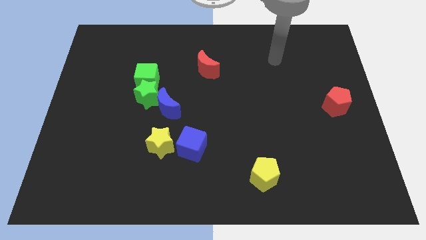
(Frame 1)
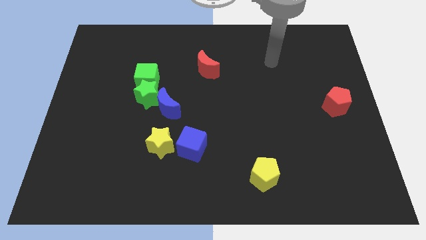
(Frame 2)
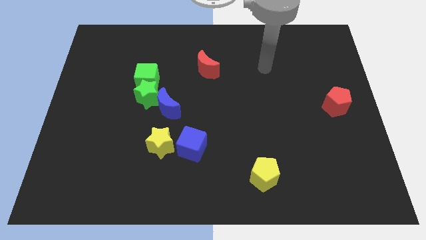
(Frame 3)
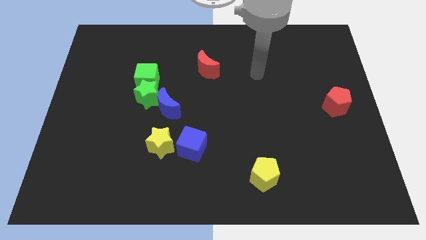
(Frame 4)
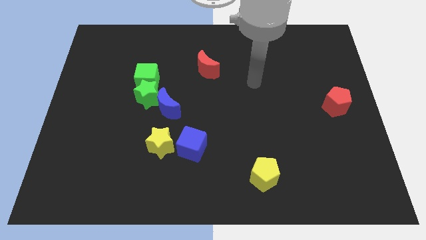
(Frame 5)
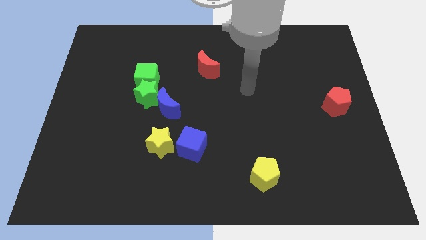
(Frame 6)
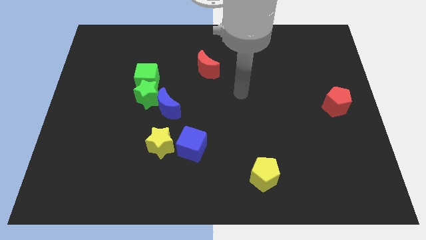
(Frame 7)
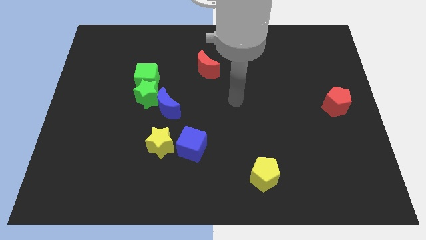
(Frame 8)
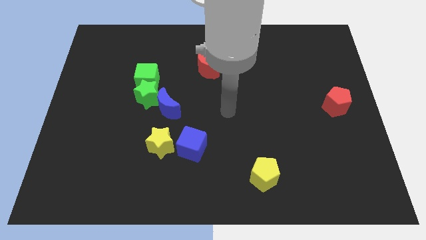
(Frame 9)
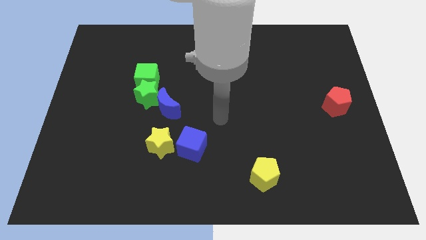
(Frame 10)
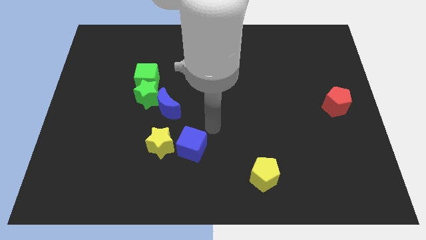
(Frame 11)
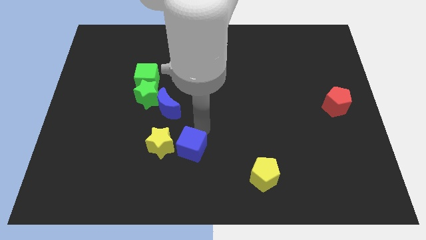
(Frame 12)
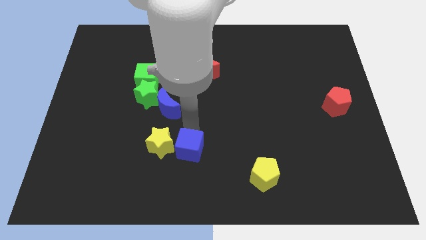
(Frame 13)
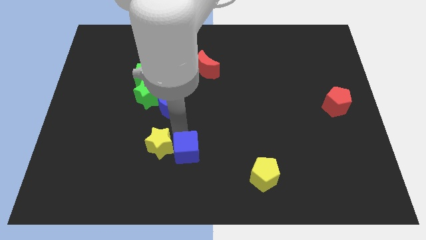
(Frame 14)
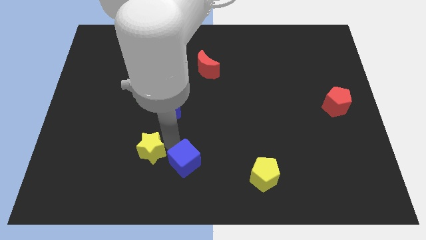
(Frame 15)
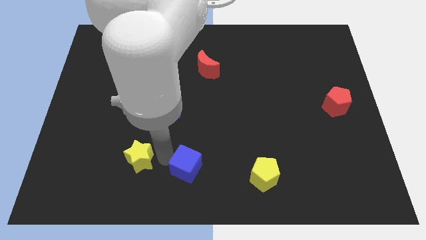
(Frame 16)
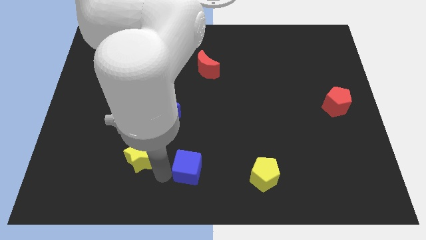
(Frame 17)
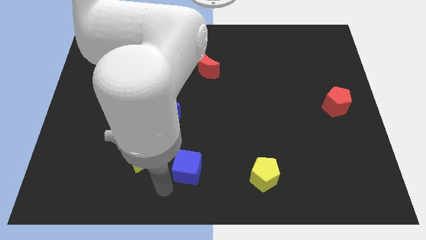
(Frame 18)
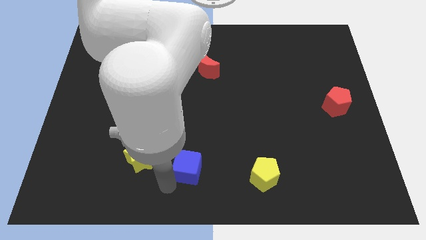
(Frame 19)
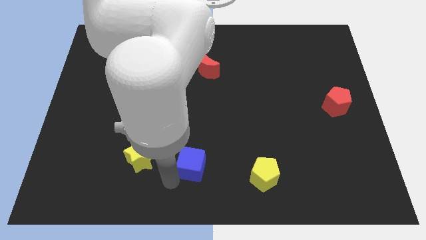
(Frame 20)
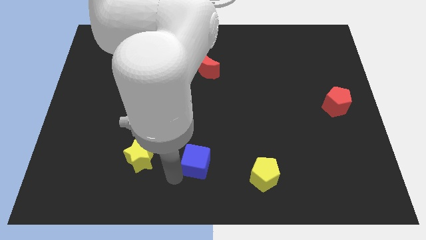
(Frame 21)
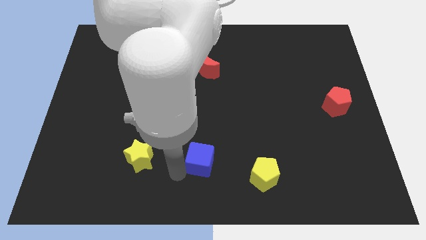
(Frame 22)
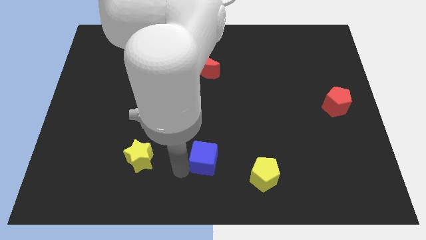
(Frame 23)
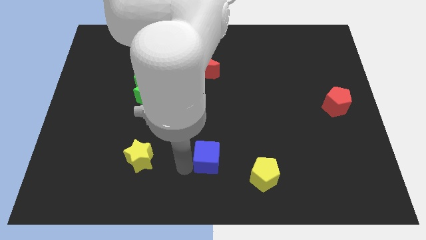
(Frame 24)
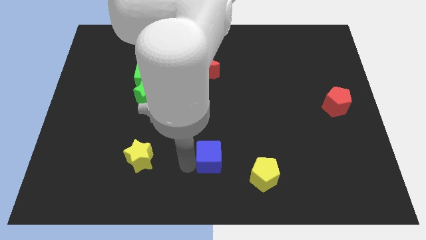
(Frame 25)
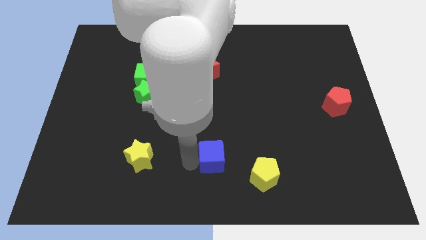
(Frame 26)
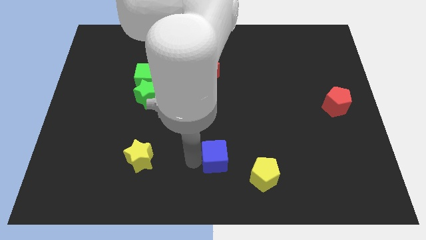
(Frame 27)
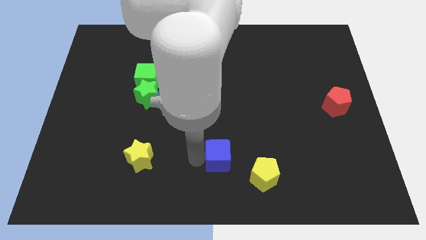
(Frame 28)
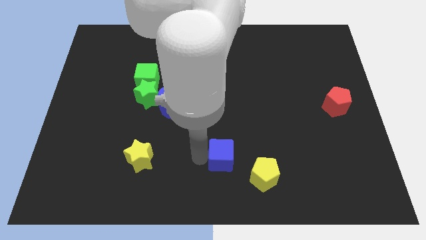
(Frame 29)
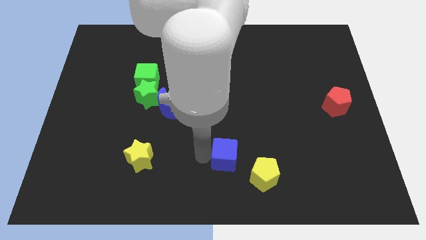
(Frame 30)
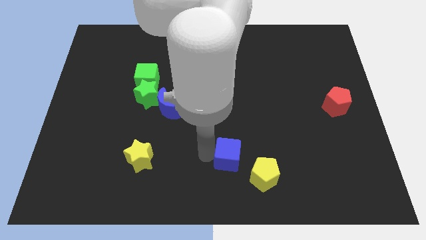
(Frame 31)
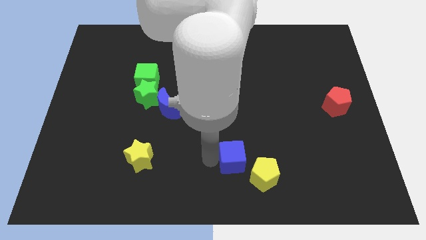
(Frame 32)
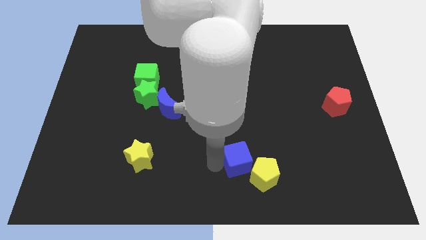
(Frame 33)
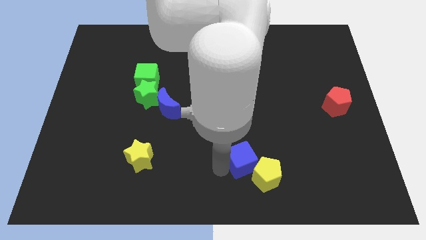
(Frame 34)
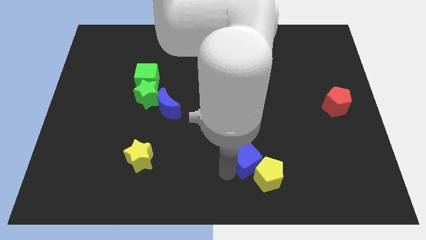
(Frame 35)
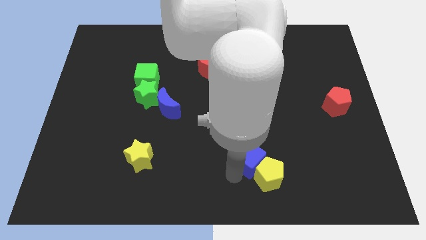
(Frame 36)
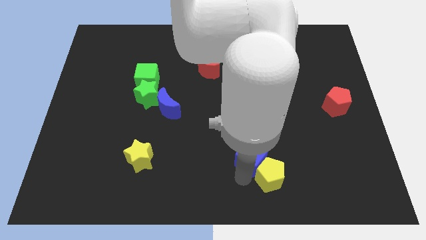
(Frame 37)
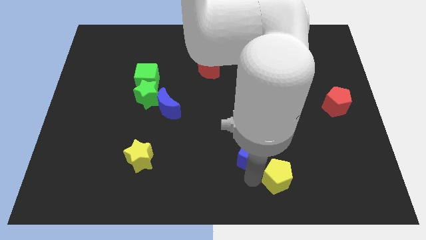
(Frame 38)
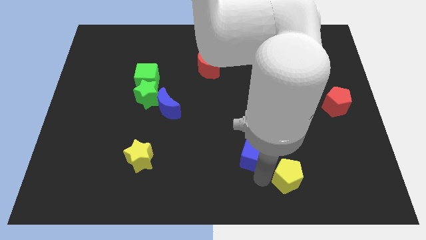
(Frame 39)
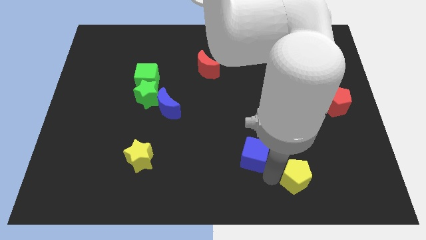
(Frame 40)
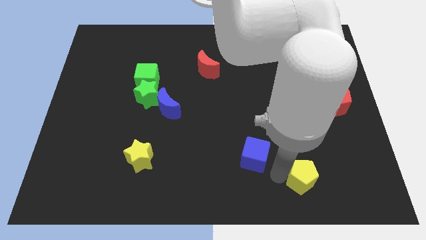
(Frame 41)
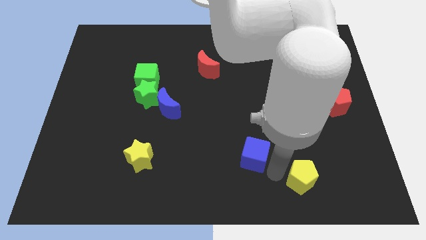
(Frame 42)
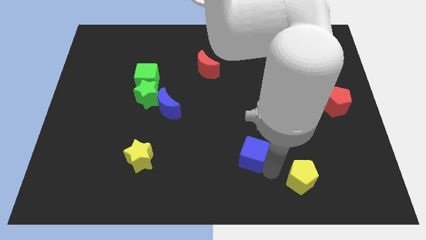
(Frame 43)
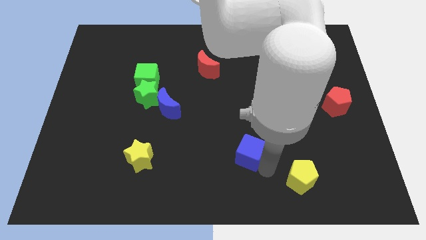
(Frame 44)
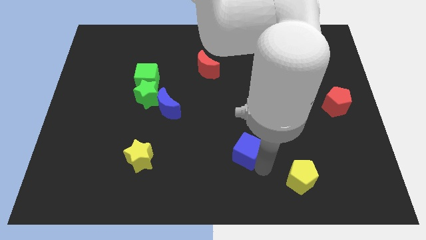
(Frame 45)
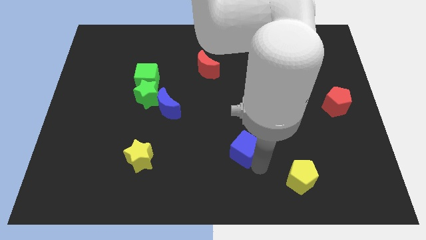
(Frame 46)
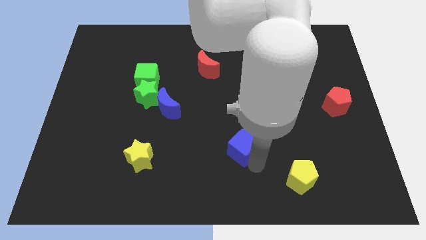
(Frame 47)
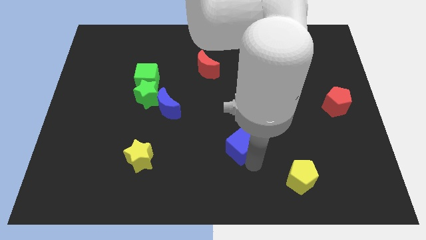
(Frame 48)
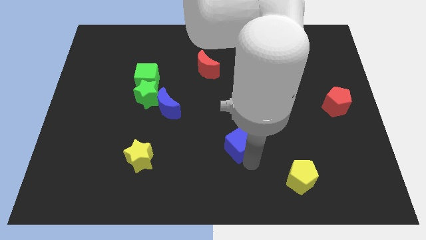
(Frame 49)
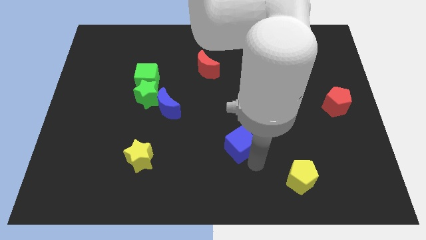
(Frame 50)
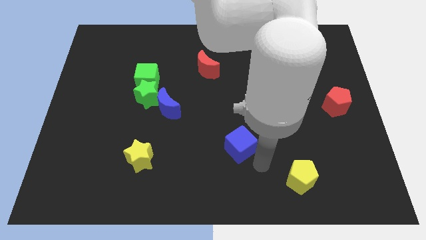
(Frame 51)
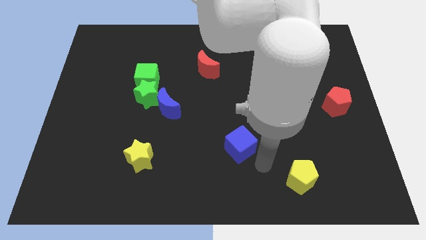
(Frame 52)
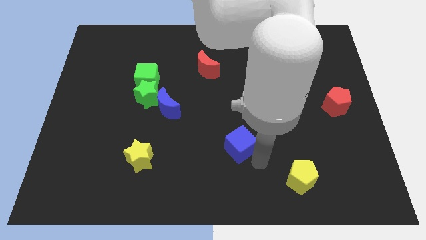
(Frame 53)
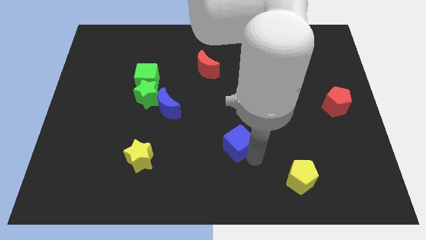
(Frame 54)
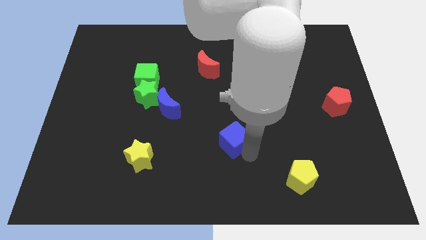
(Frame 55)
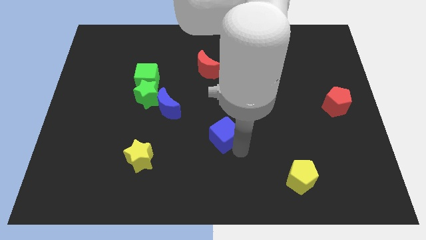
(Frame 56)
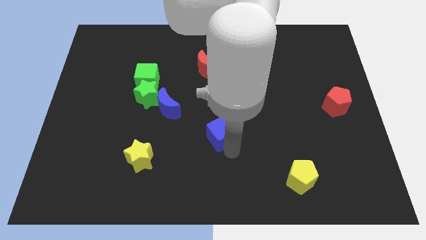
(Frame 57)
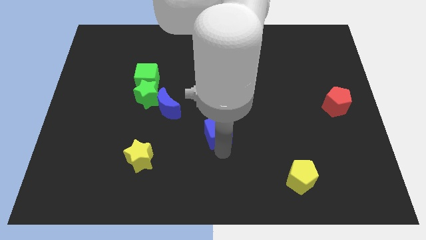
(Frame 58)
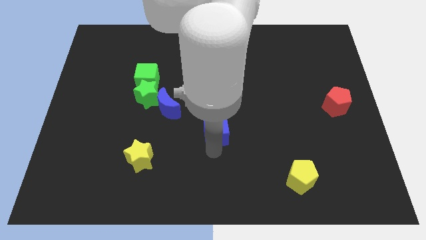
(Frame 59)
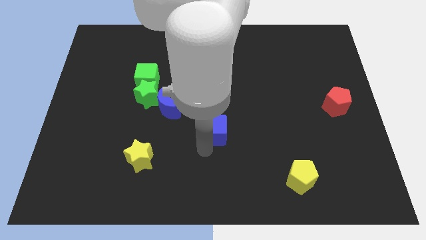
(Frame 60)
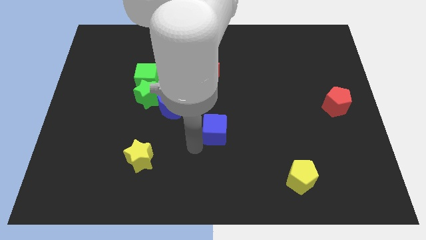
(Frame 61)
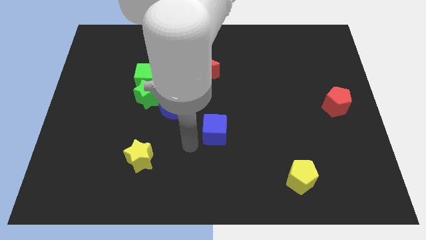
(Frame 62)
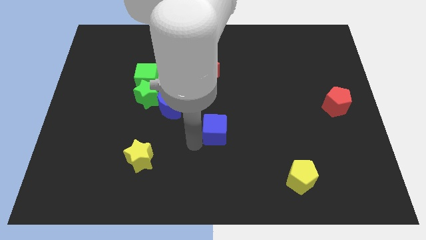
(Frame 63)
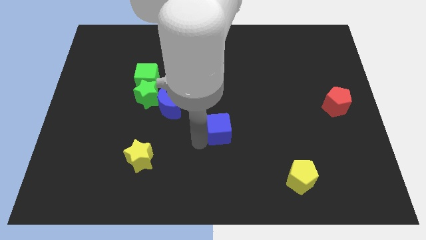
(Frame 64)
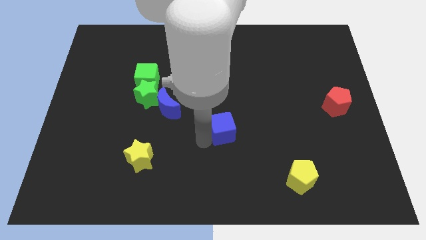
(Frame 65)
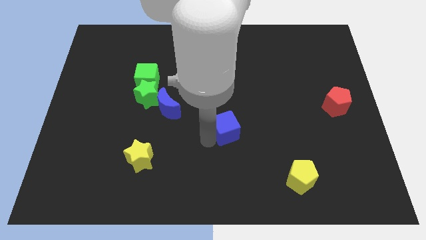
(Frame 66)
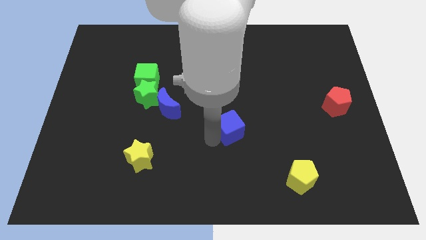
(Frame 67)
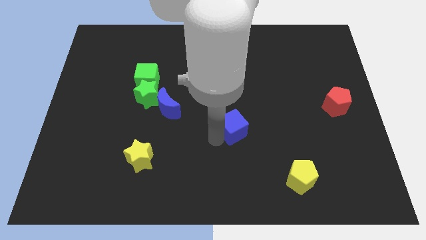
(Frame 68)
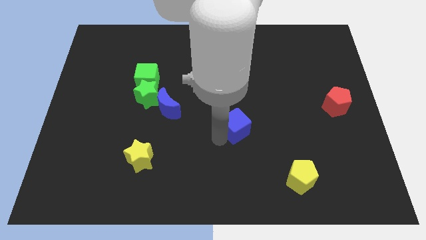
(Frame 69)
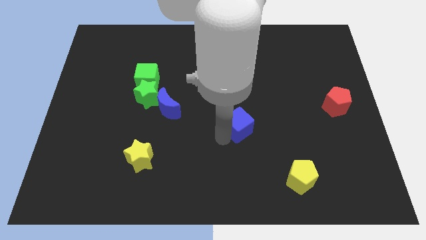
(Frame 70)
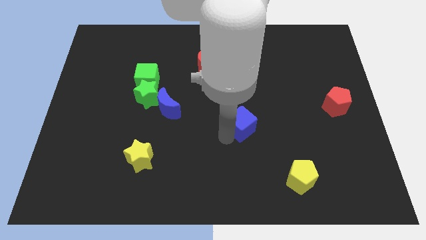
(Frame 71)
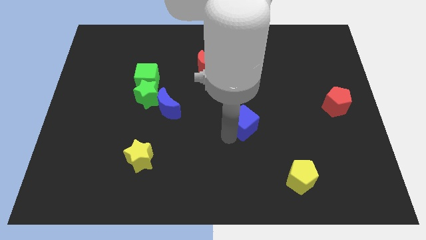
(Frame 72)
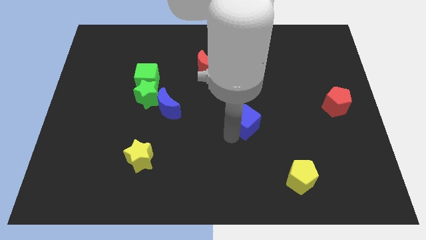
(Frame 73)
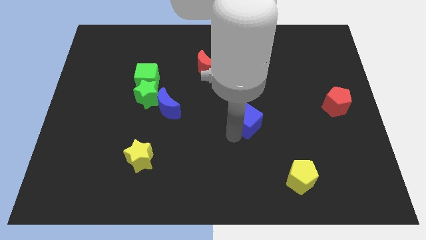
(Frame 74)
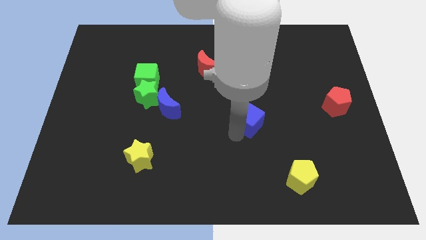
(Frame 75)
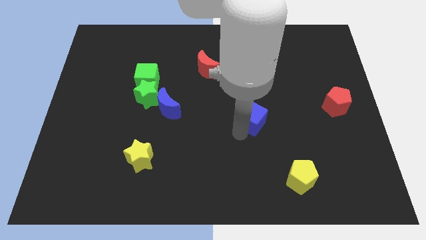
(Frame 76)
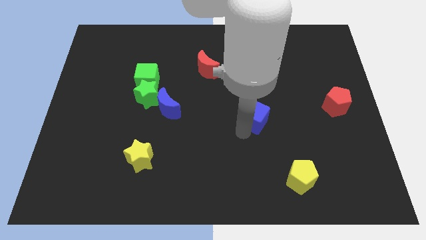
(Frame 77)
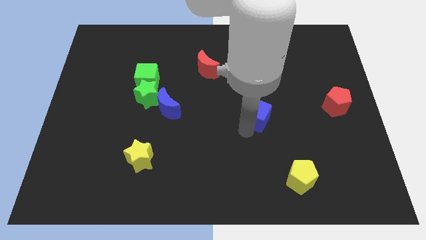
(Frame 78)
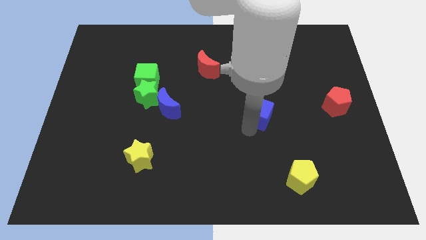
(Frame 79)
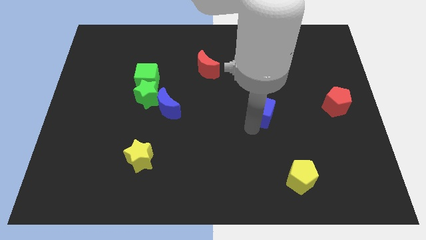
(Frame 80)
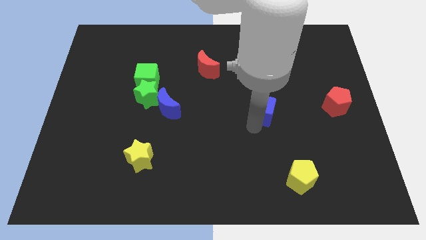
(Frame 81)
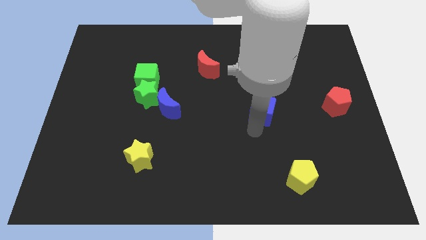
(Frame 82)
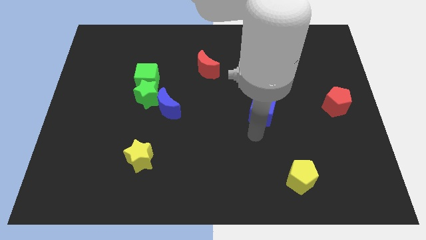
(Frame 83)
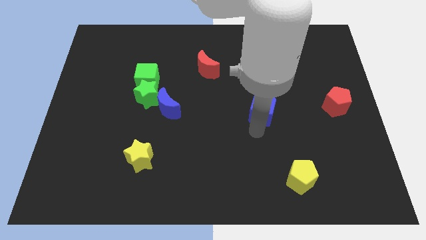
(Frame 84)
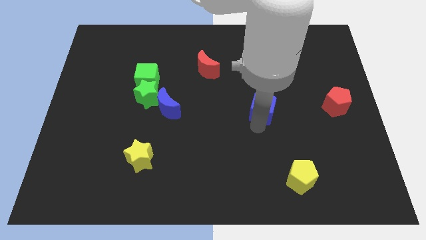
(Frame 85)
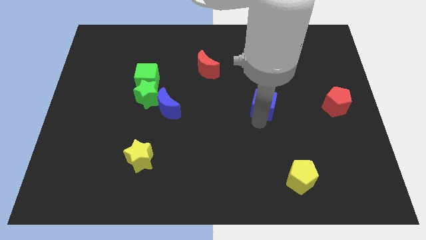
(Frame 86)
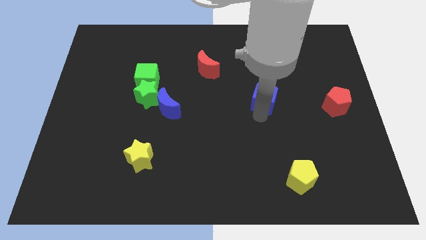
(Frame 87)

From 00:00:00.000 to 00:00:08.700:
push the blue cube upwards and to the right diagonally
